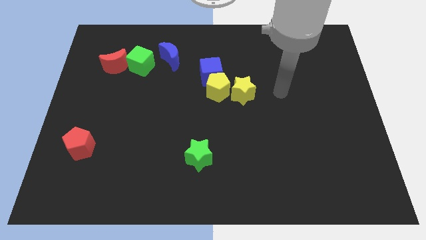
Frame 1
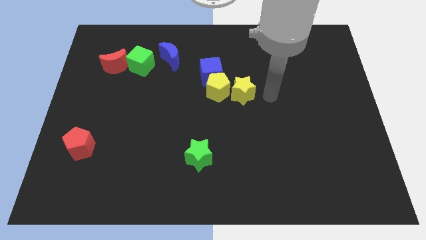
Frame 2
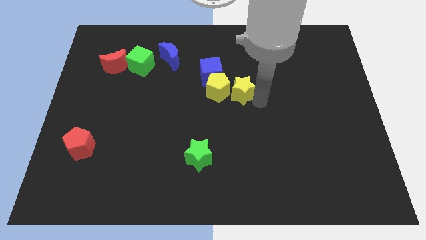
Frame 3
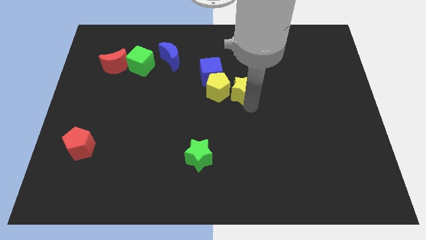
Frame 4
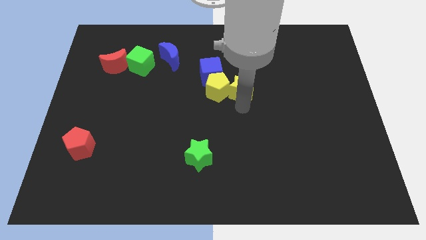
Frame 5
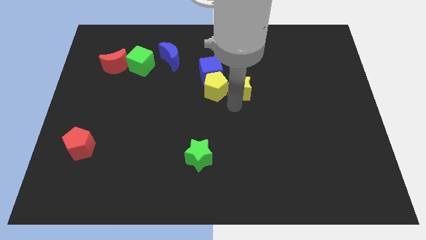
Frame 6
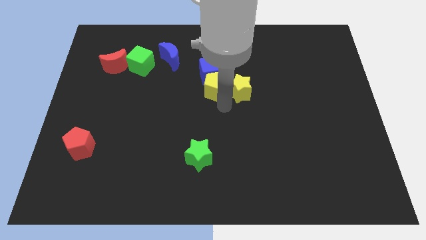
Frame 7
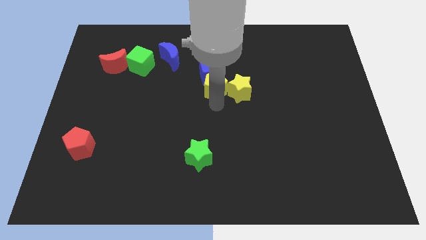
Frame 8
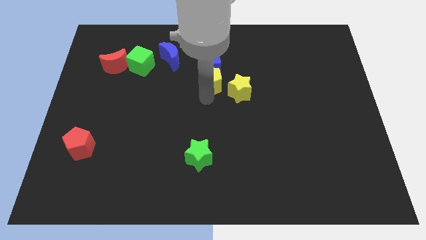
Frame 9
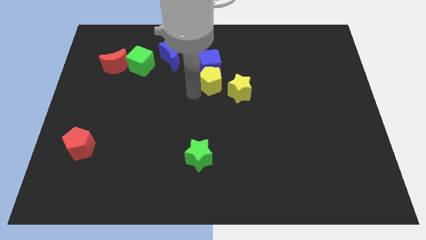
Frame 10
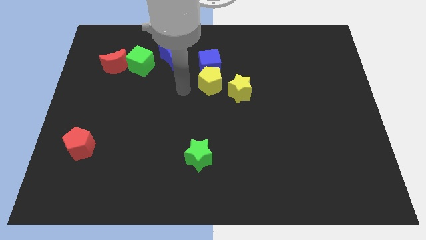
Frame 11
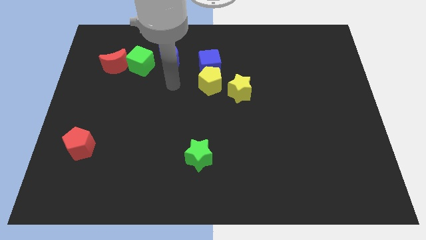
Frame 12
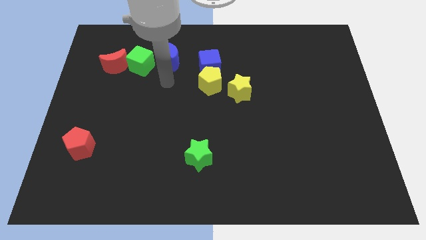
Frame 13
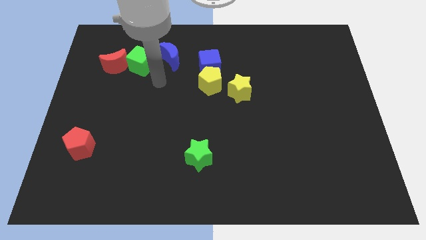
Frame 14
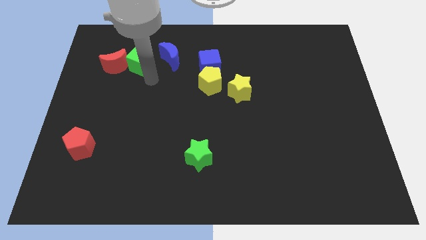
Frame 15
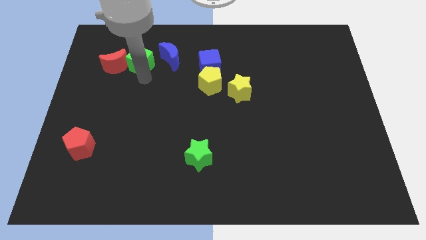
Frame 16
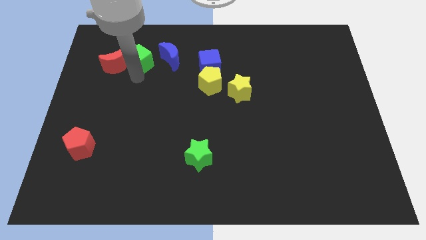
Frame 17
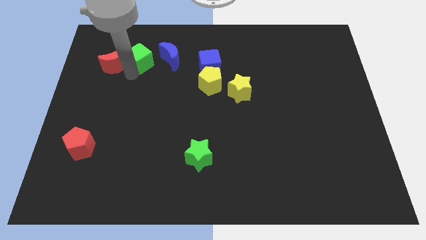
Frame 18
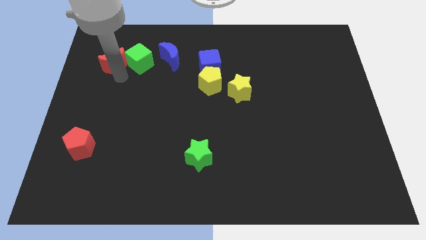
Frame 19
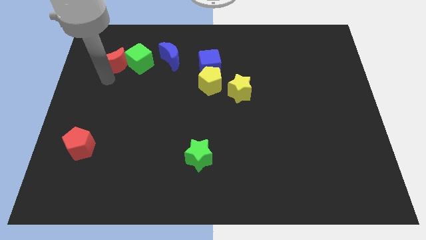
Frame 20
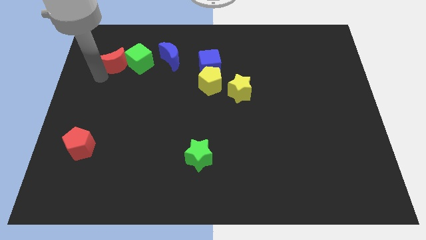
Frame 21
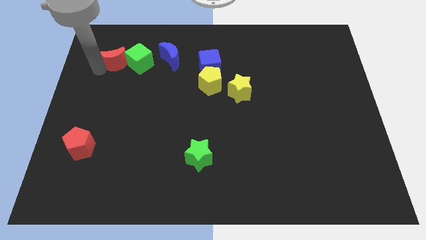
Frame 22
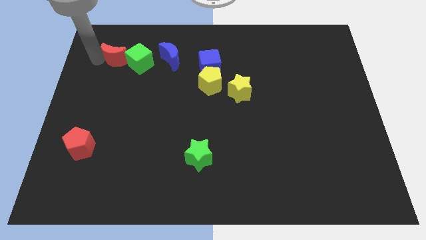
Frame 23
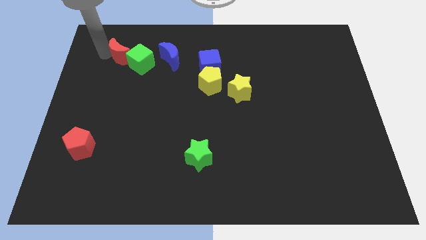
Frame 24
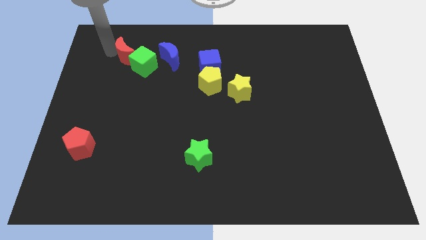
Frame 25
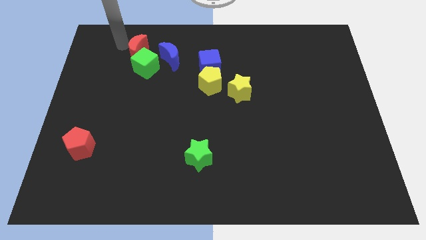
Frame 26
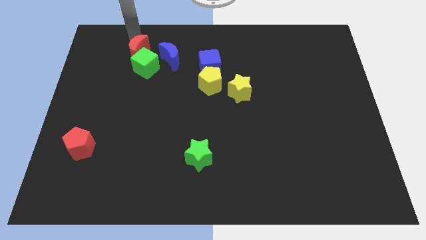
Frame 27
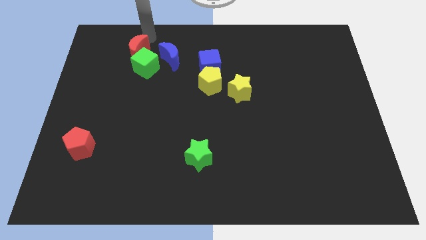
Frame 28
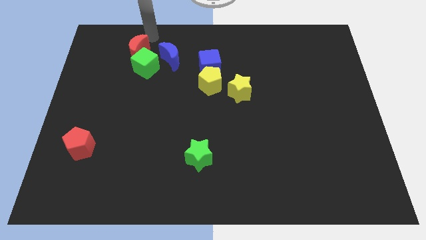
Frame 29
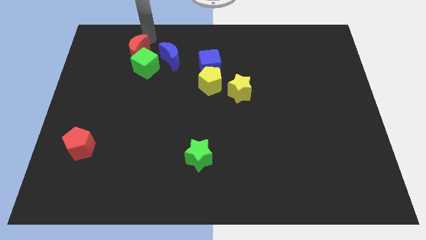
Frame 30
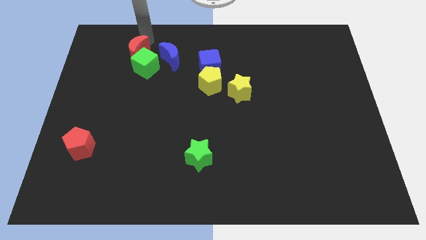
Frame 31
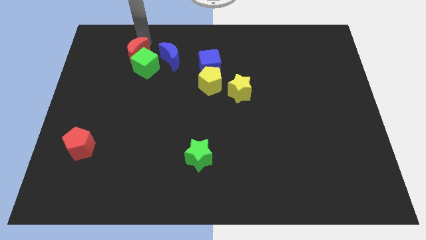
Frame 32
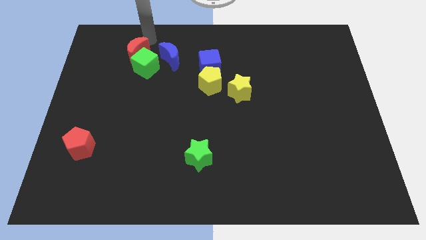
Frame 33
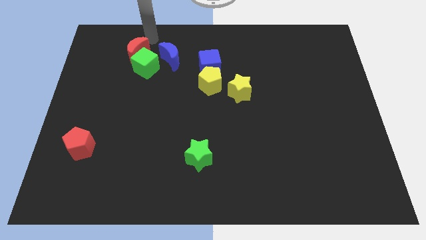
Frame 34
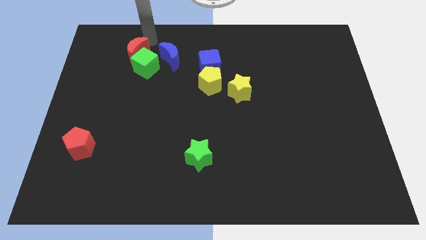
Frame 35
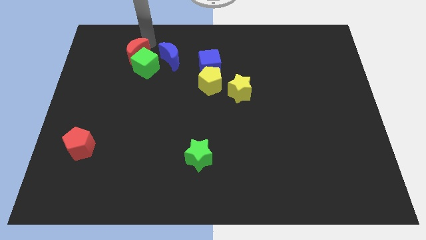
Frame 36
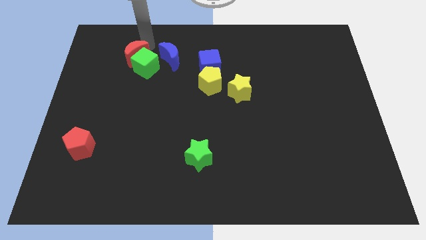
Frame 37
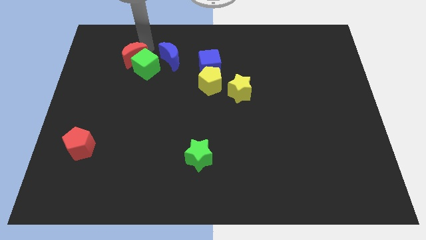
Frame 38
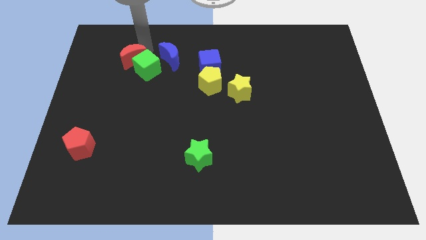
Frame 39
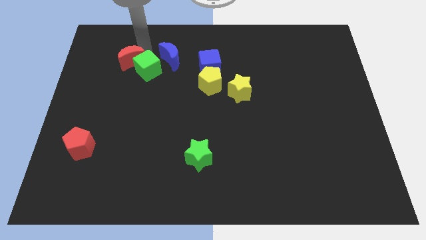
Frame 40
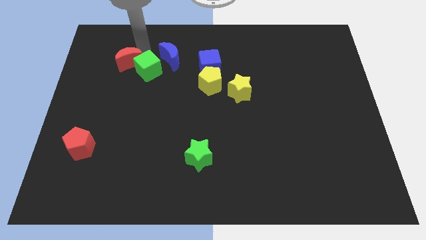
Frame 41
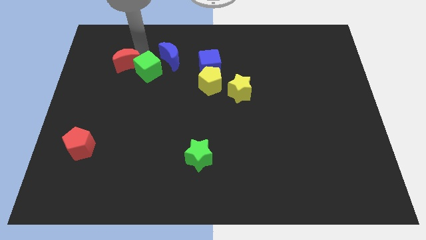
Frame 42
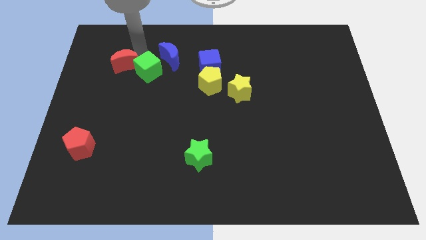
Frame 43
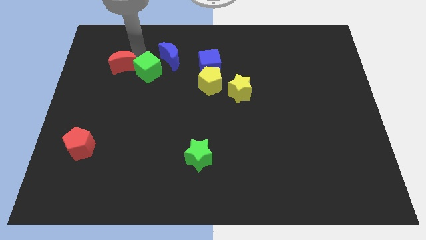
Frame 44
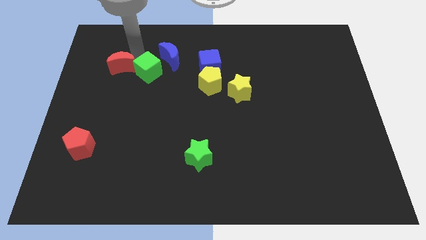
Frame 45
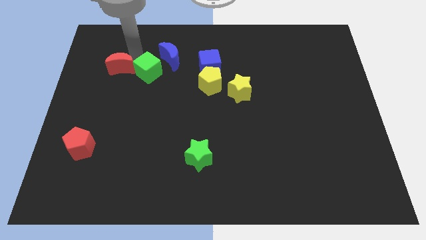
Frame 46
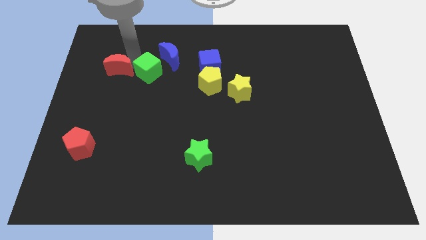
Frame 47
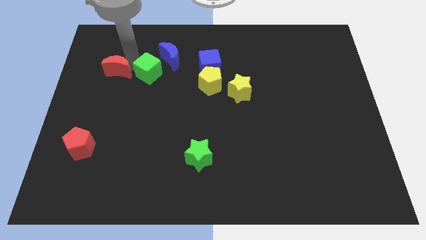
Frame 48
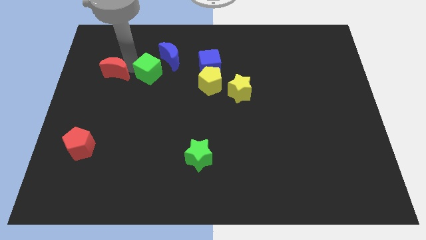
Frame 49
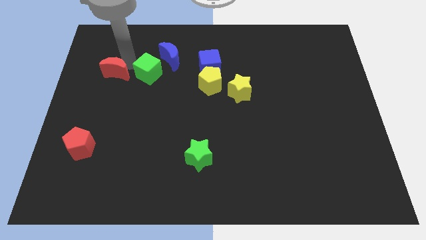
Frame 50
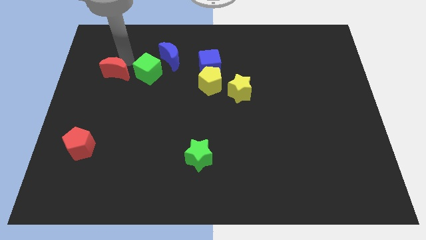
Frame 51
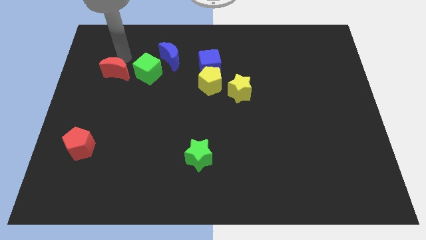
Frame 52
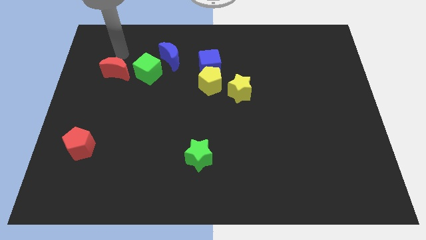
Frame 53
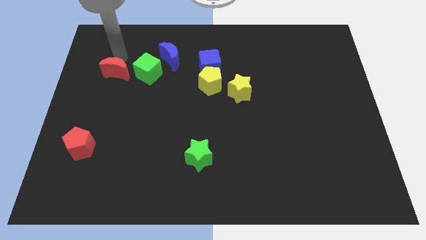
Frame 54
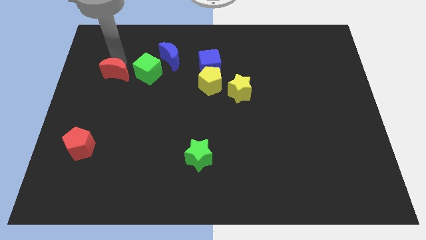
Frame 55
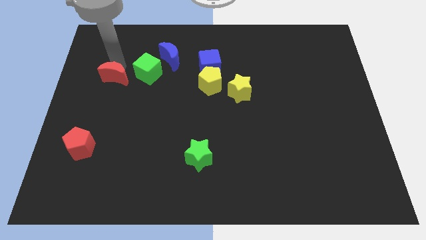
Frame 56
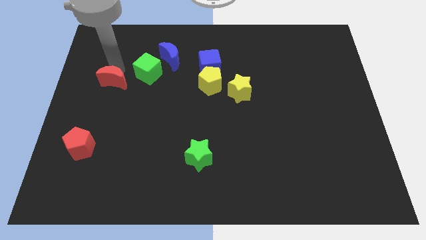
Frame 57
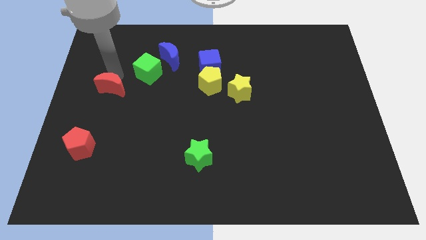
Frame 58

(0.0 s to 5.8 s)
slide the red moon slightly downwards

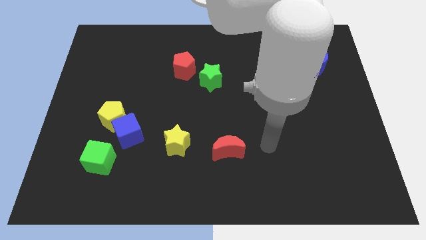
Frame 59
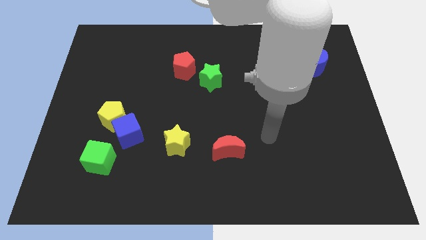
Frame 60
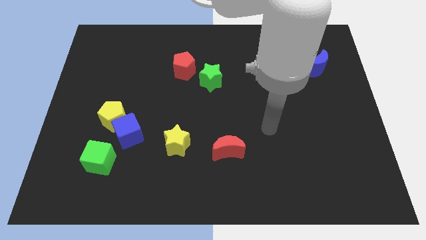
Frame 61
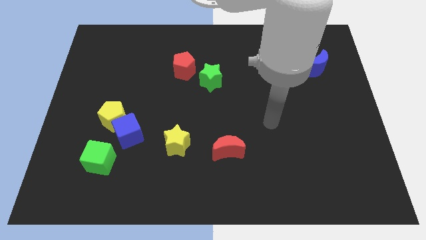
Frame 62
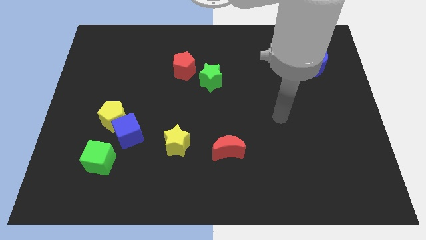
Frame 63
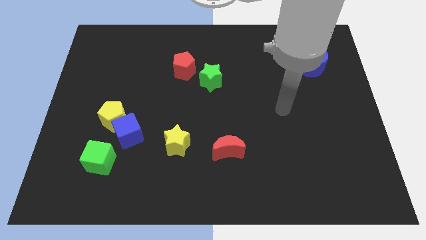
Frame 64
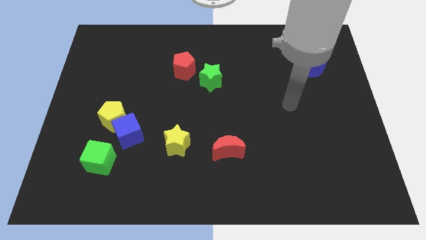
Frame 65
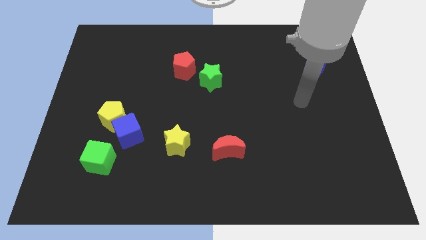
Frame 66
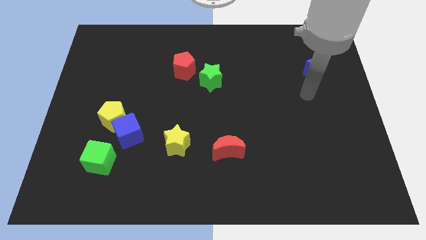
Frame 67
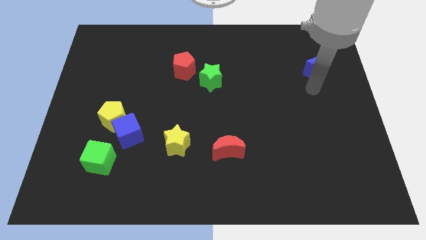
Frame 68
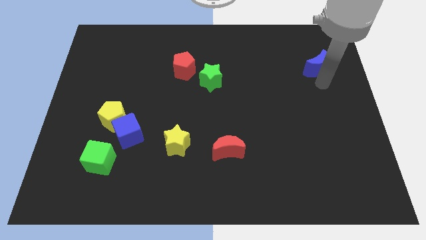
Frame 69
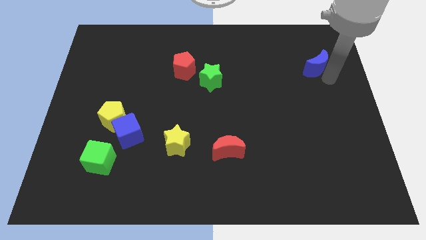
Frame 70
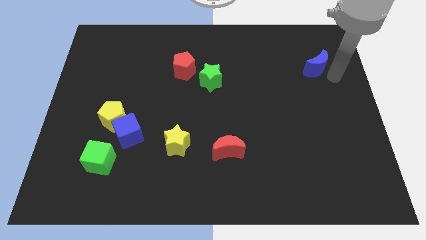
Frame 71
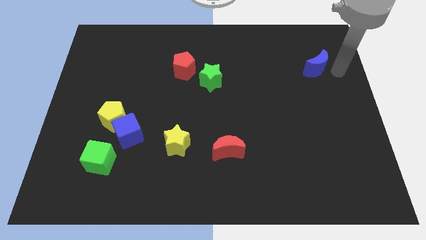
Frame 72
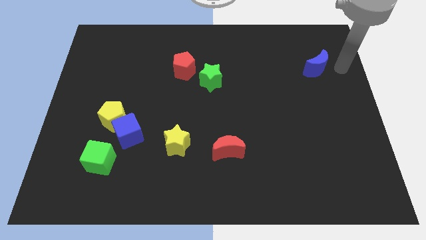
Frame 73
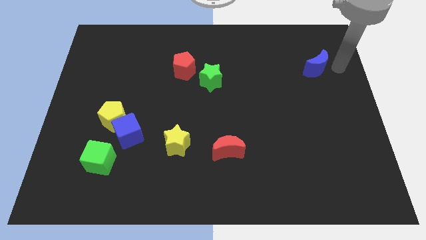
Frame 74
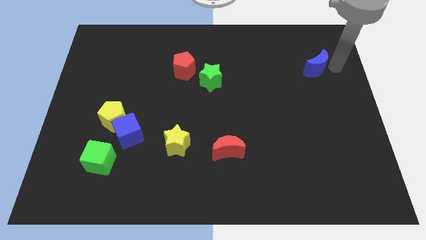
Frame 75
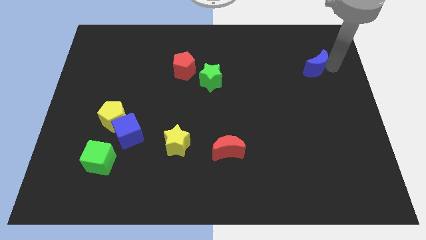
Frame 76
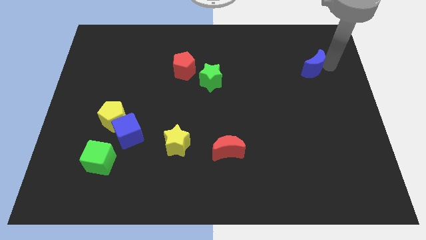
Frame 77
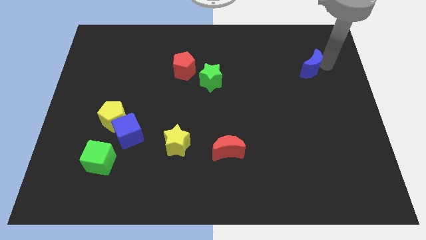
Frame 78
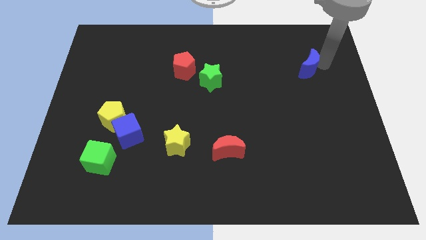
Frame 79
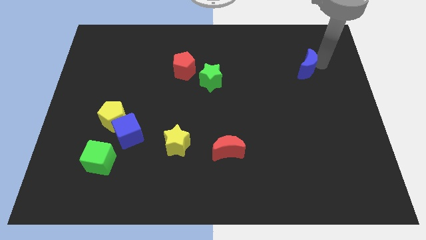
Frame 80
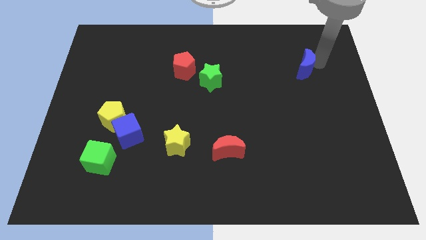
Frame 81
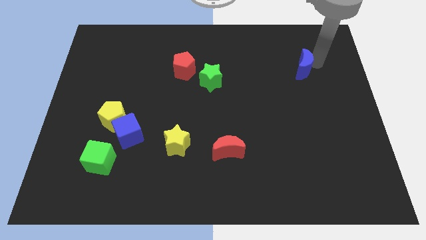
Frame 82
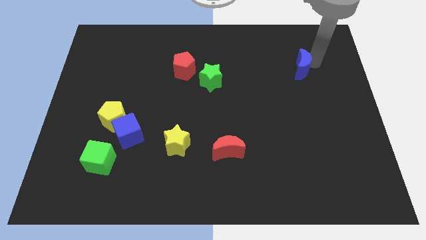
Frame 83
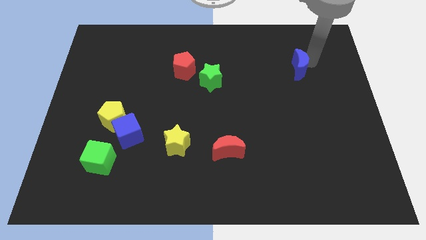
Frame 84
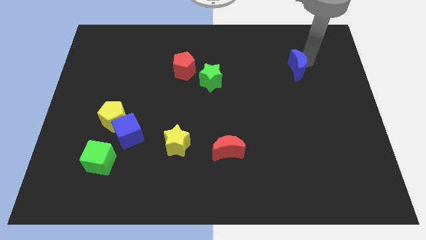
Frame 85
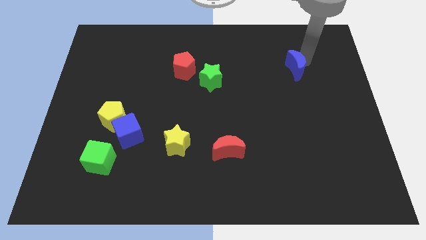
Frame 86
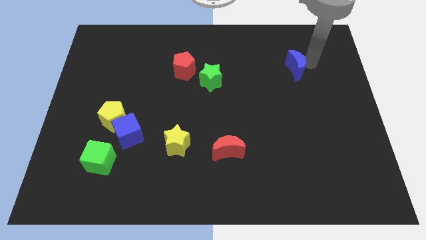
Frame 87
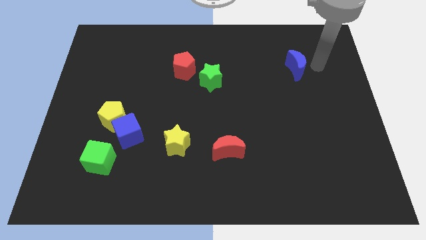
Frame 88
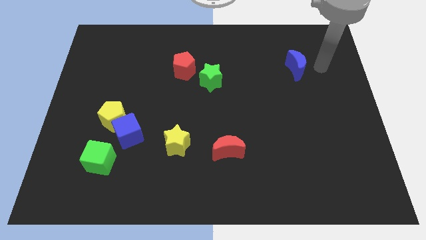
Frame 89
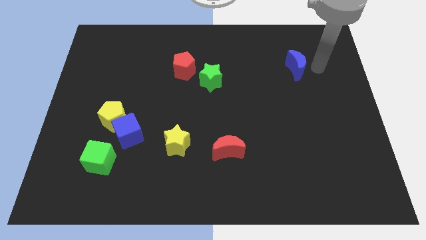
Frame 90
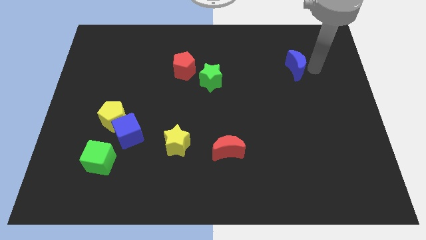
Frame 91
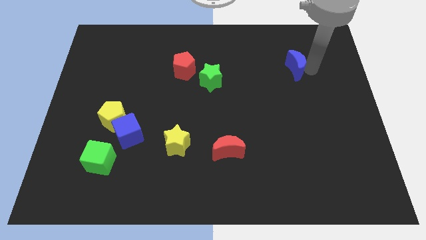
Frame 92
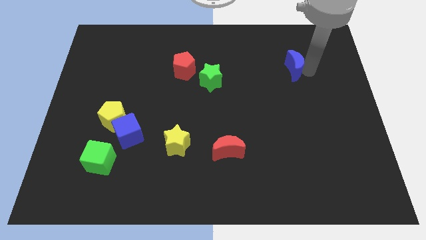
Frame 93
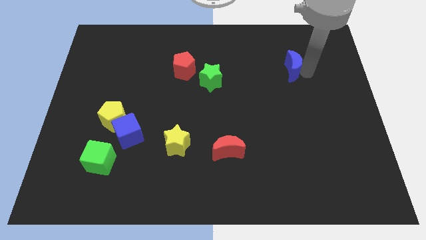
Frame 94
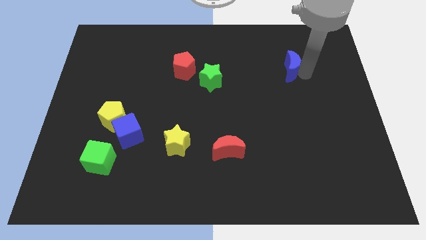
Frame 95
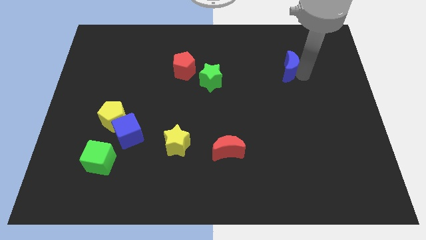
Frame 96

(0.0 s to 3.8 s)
push the blue moon somewhat to the left
